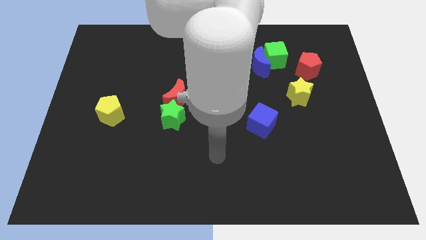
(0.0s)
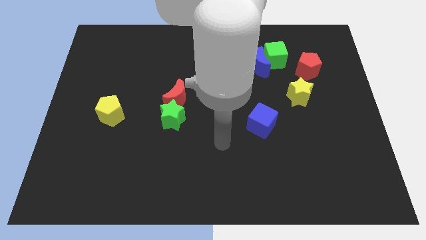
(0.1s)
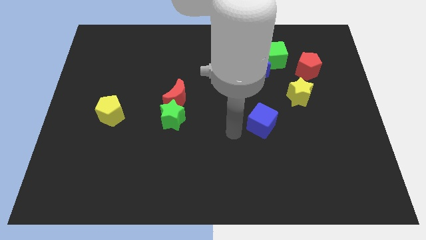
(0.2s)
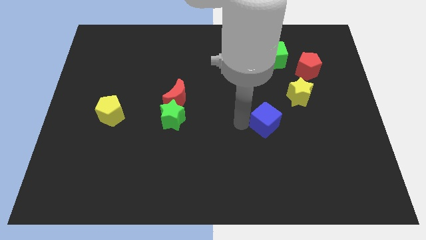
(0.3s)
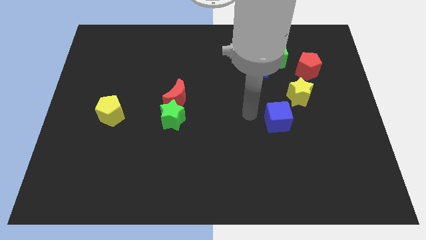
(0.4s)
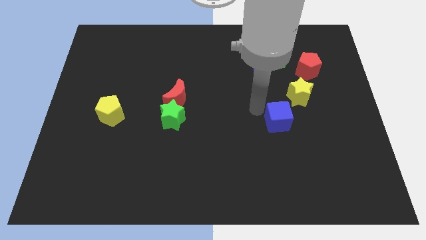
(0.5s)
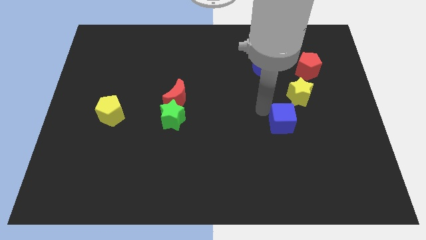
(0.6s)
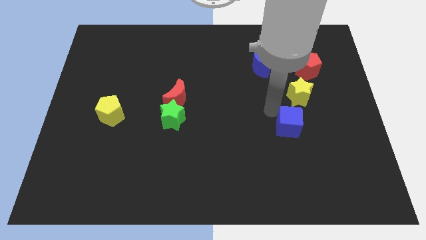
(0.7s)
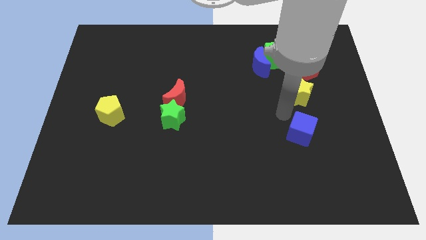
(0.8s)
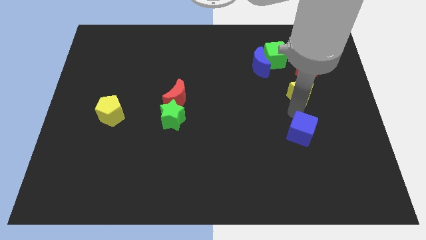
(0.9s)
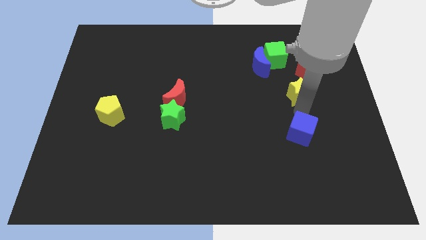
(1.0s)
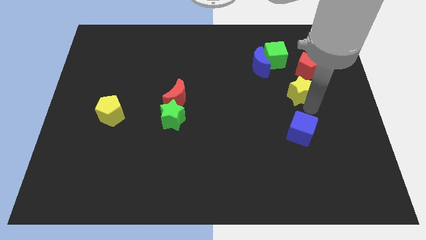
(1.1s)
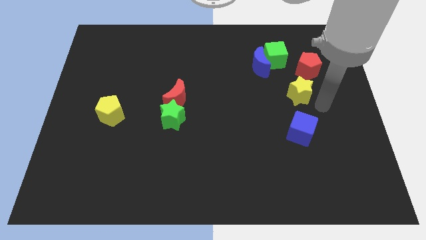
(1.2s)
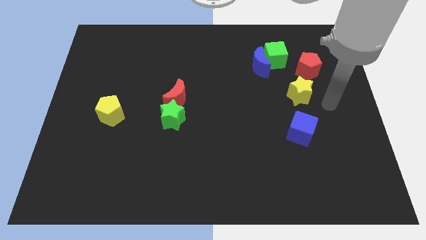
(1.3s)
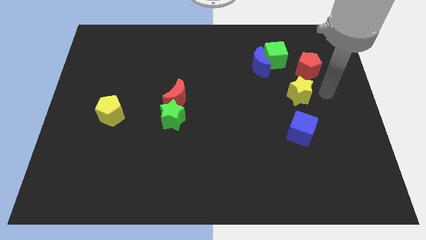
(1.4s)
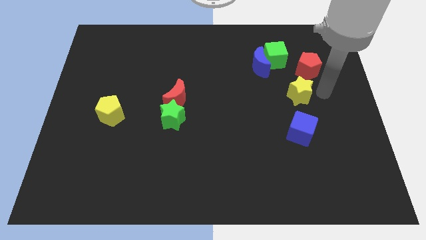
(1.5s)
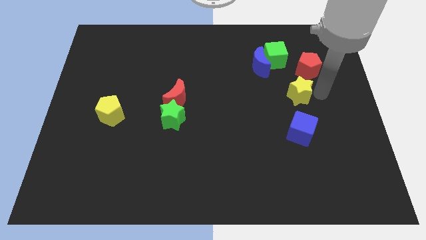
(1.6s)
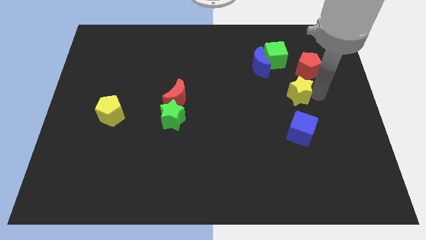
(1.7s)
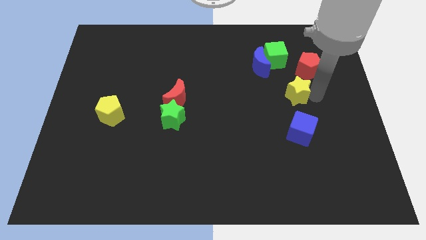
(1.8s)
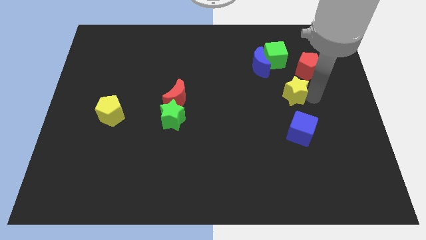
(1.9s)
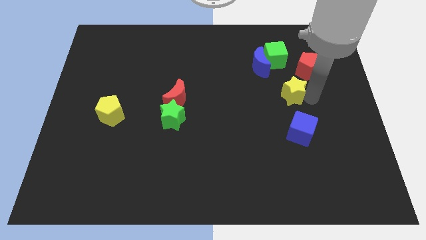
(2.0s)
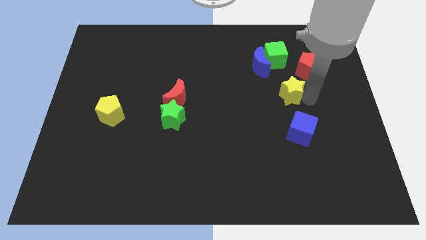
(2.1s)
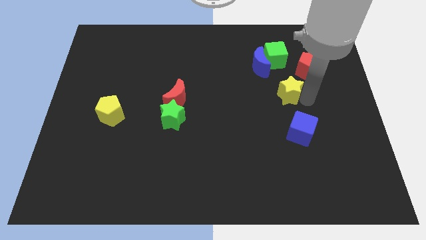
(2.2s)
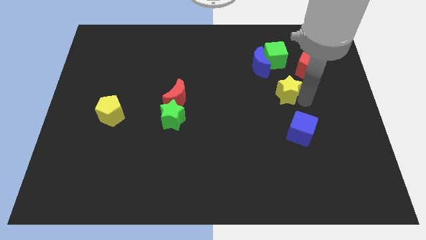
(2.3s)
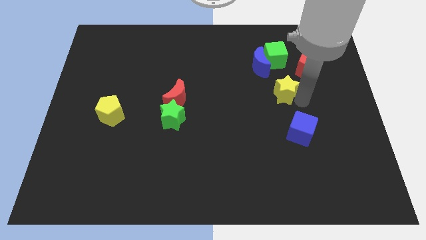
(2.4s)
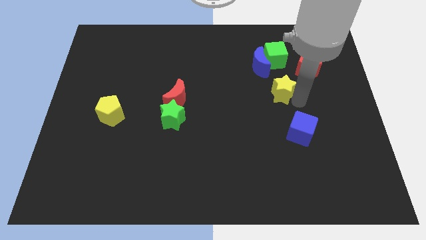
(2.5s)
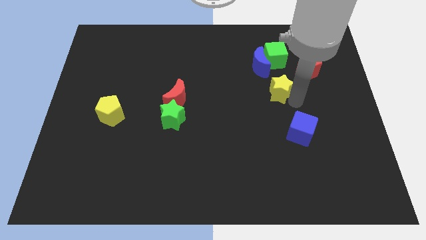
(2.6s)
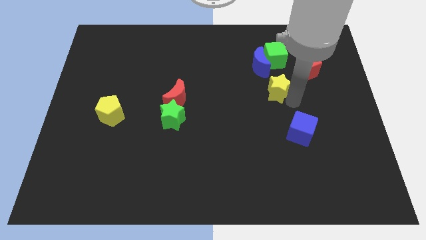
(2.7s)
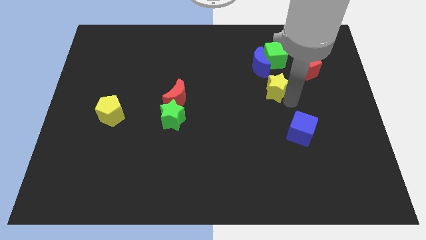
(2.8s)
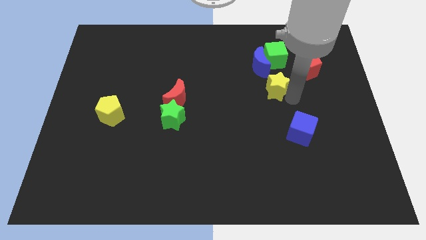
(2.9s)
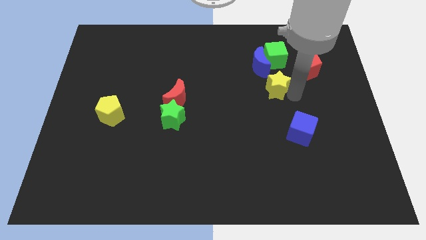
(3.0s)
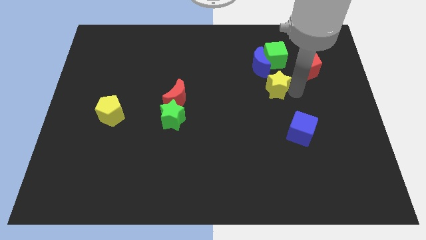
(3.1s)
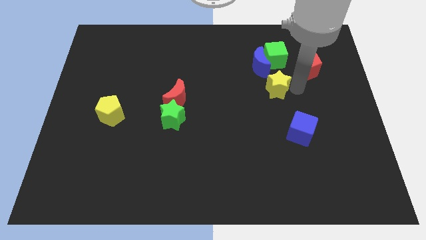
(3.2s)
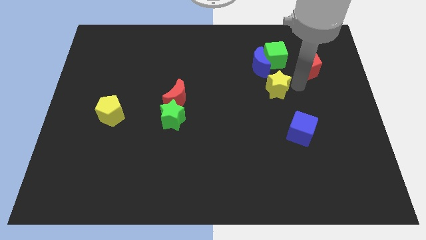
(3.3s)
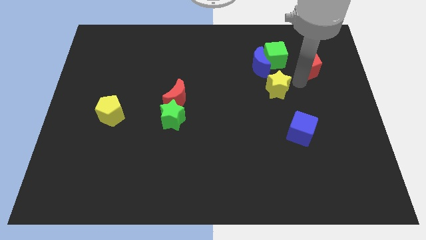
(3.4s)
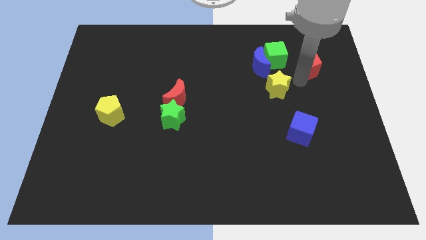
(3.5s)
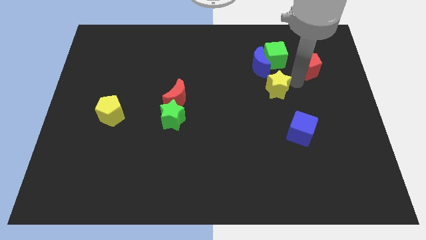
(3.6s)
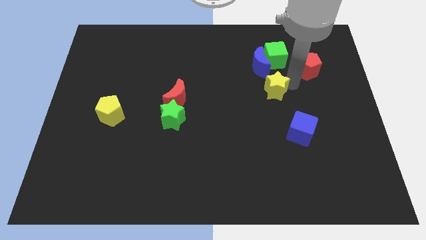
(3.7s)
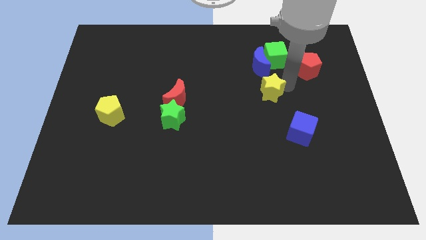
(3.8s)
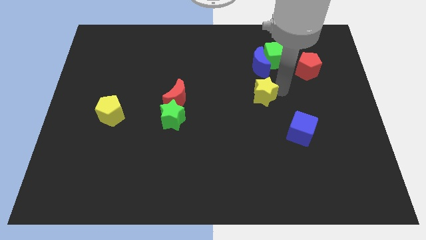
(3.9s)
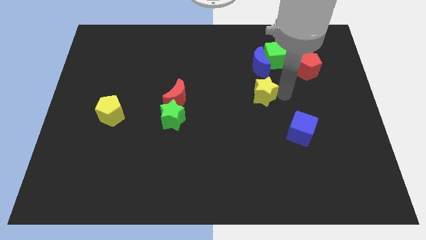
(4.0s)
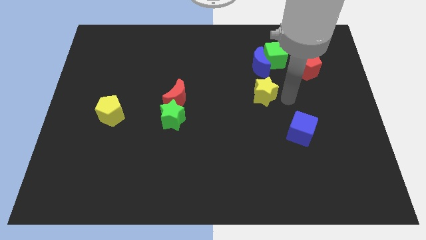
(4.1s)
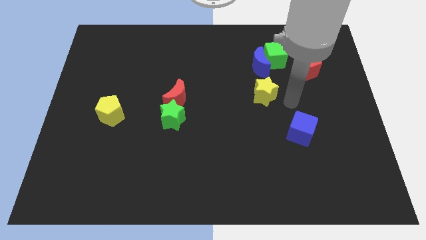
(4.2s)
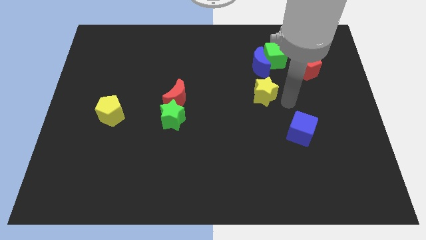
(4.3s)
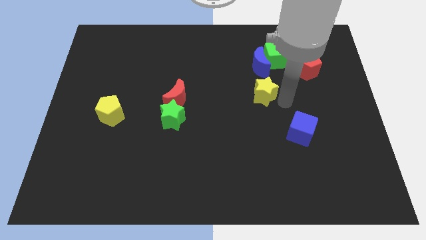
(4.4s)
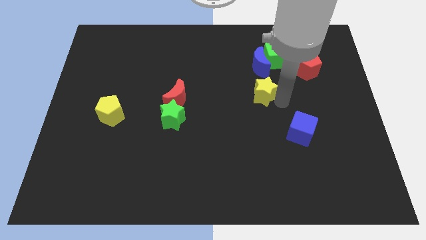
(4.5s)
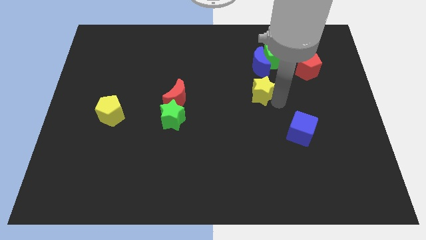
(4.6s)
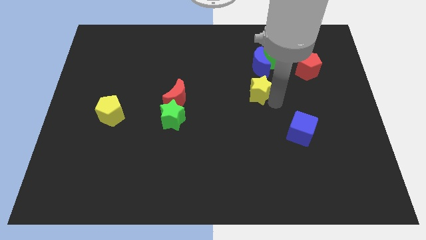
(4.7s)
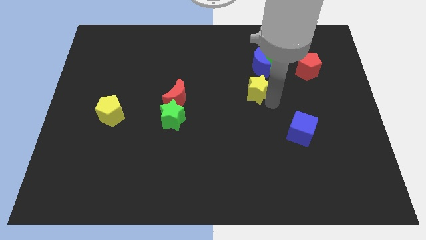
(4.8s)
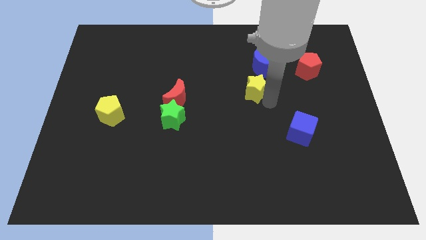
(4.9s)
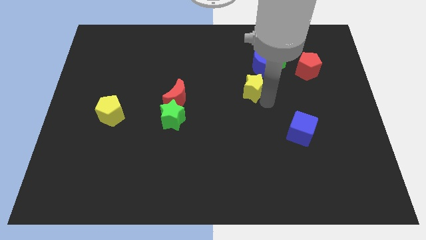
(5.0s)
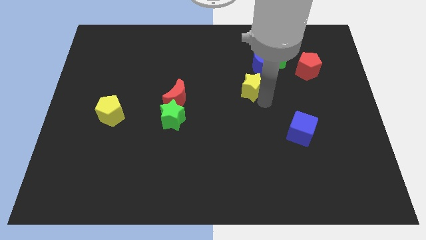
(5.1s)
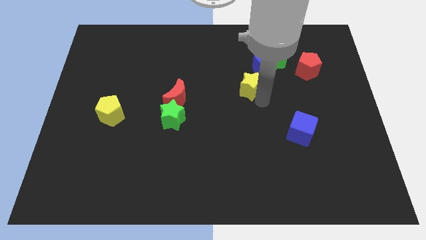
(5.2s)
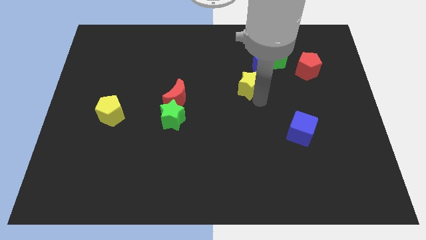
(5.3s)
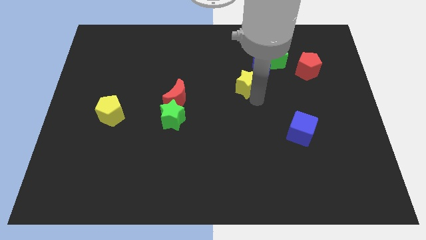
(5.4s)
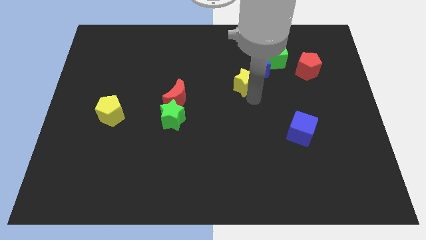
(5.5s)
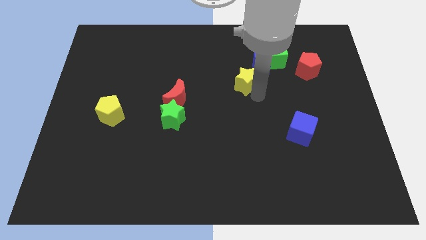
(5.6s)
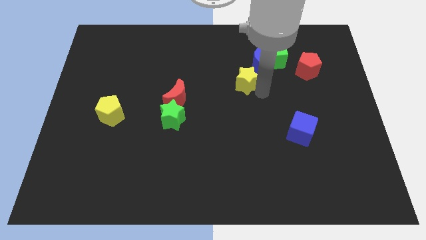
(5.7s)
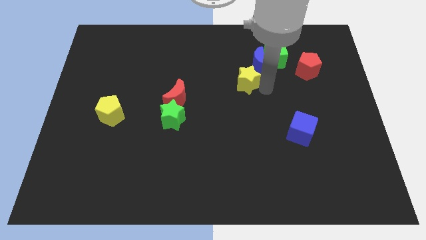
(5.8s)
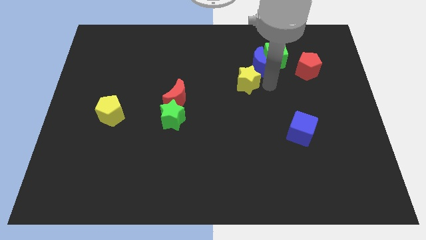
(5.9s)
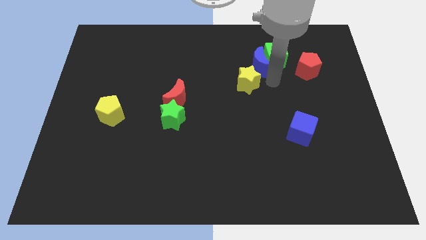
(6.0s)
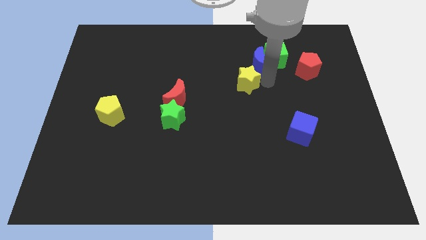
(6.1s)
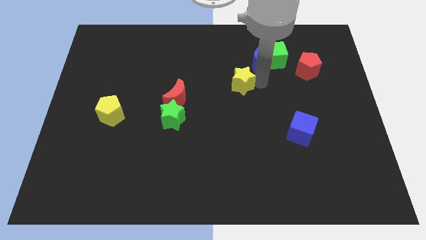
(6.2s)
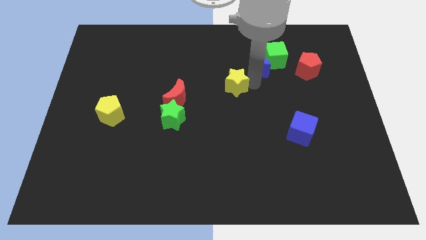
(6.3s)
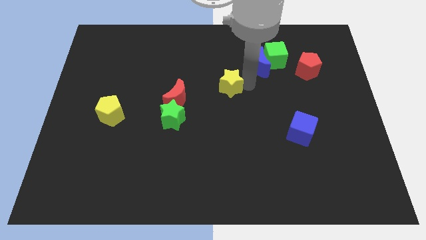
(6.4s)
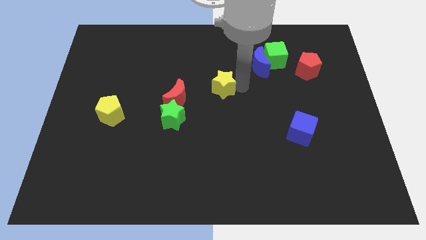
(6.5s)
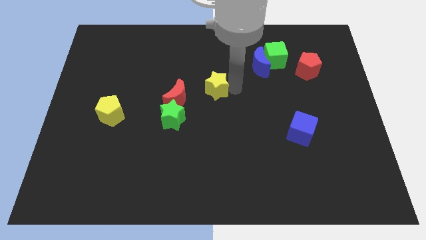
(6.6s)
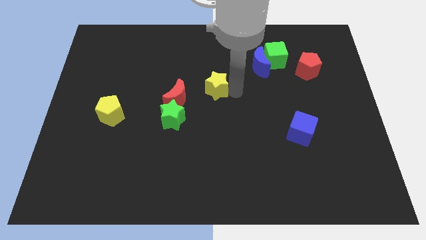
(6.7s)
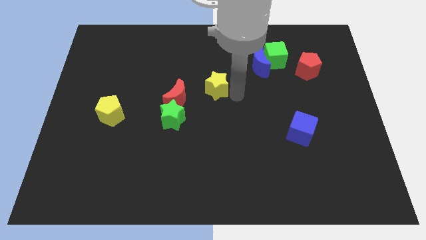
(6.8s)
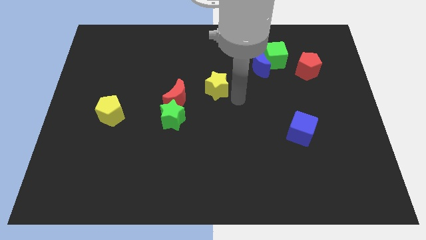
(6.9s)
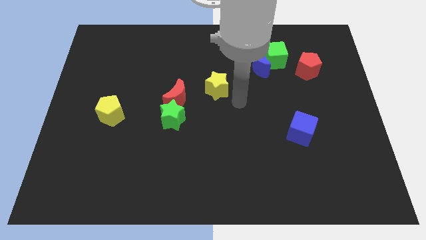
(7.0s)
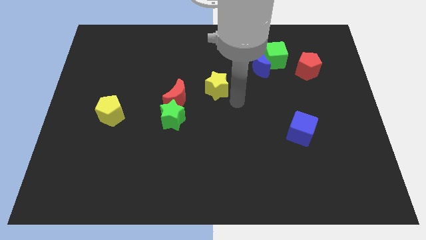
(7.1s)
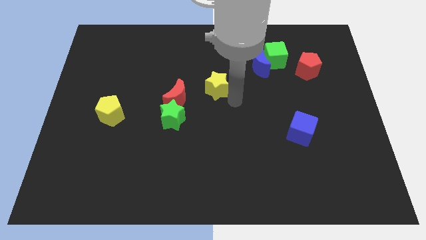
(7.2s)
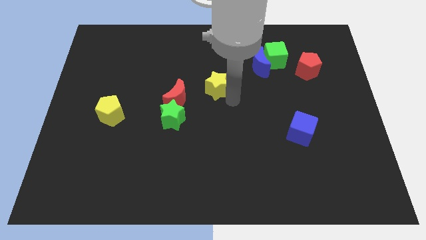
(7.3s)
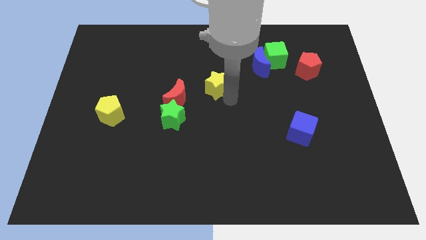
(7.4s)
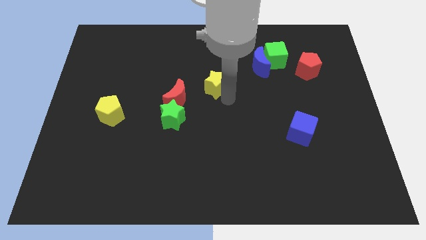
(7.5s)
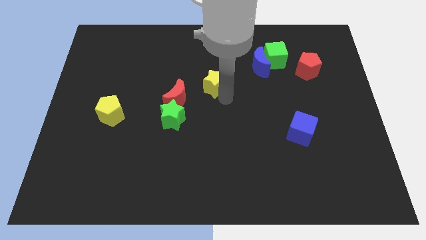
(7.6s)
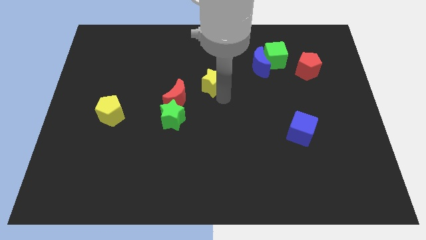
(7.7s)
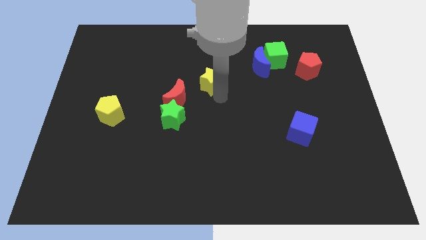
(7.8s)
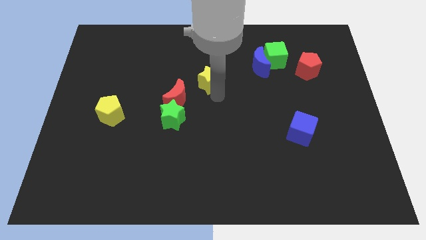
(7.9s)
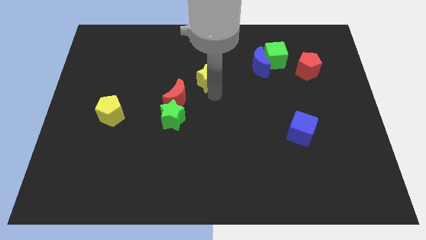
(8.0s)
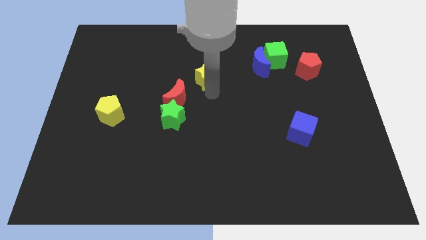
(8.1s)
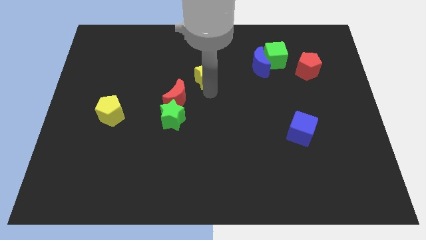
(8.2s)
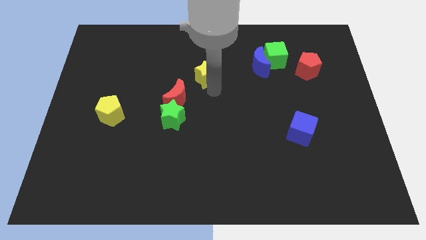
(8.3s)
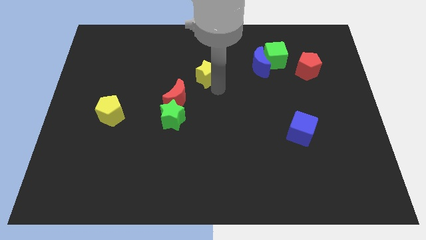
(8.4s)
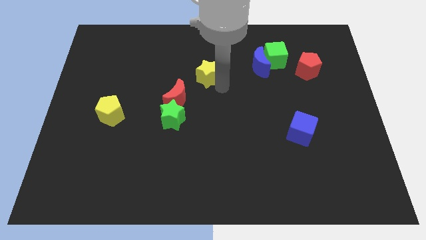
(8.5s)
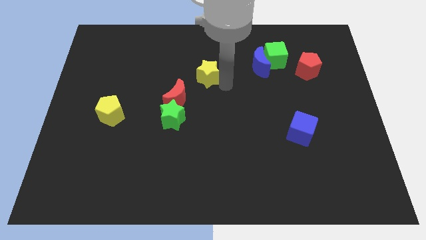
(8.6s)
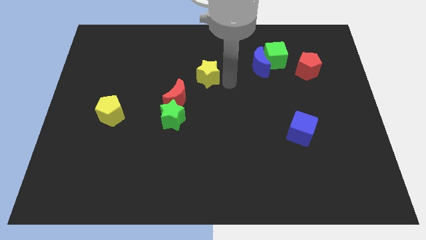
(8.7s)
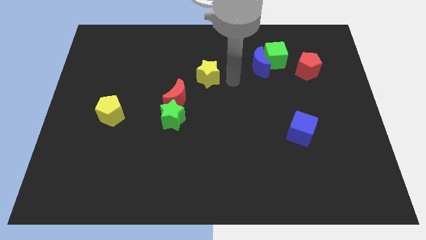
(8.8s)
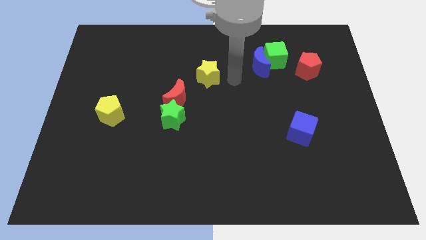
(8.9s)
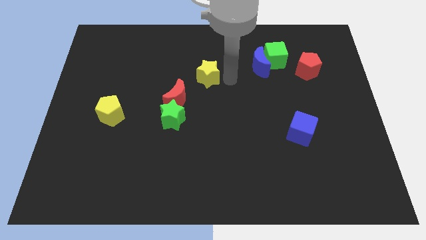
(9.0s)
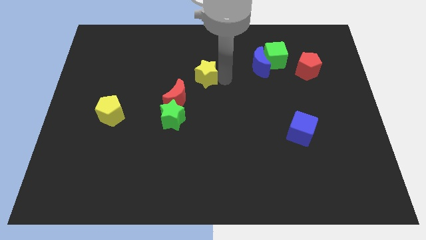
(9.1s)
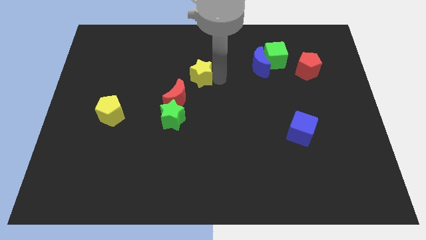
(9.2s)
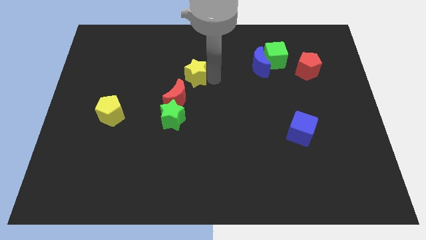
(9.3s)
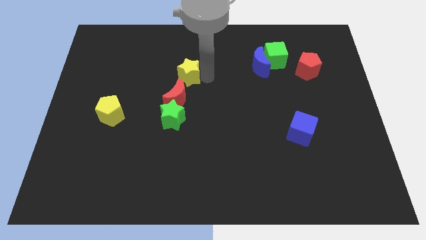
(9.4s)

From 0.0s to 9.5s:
put the yellow star to the top of the green star
